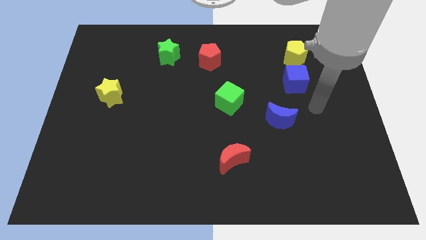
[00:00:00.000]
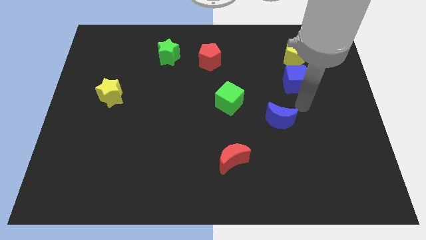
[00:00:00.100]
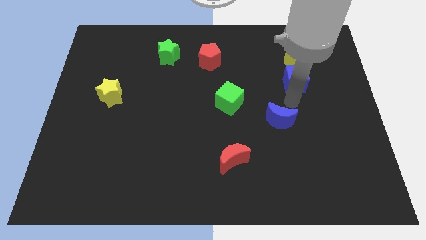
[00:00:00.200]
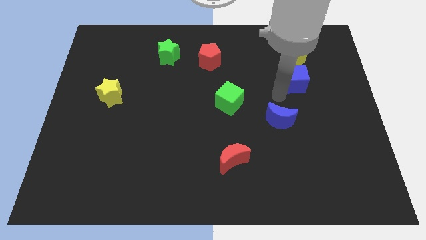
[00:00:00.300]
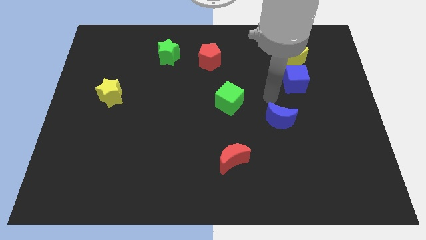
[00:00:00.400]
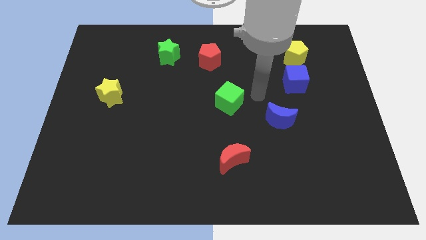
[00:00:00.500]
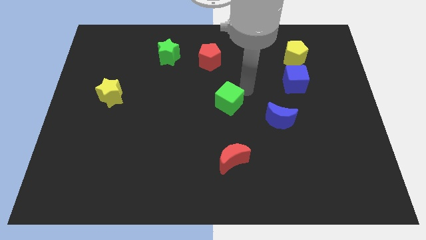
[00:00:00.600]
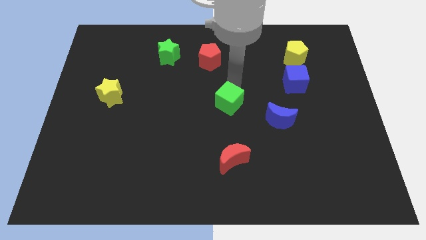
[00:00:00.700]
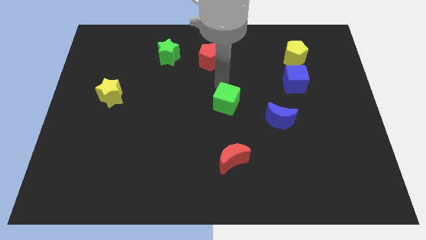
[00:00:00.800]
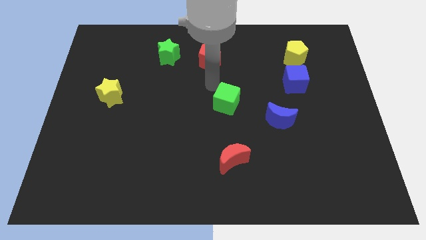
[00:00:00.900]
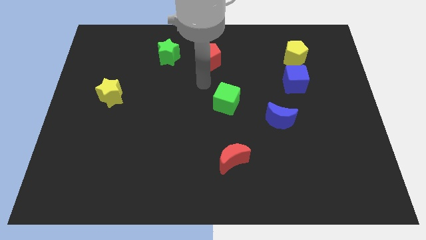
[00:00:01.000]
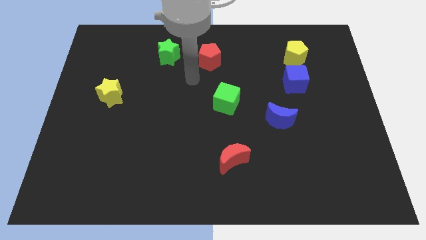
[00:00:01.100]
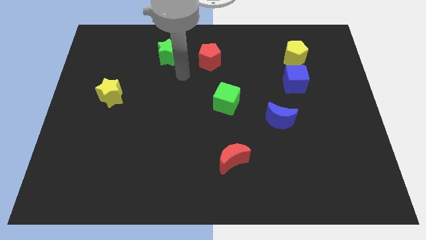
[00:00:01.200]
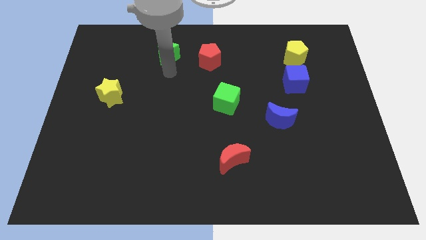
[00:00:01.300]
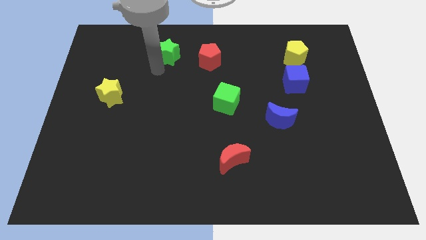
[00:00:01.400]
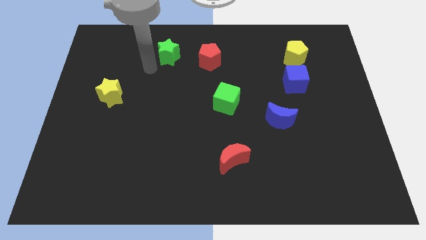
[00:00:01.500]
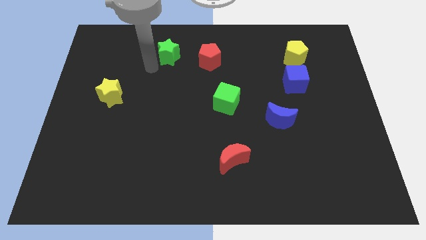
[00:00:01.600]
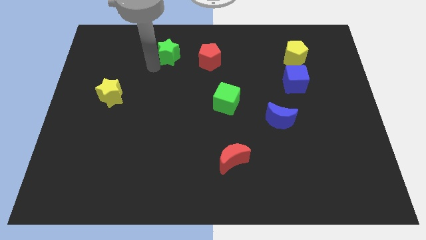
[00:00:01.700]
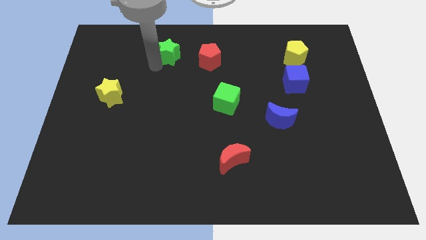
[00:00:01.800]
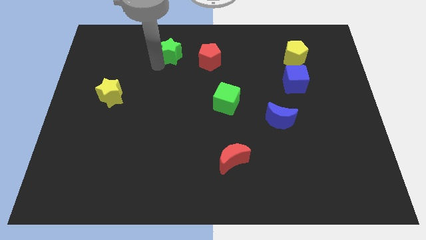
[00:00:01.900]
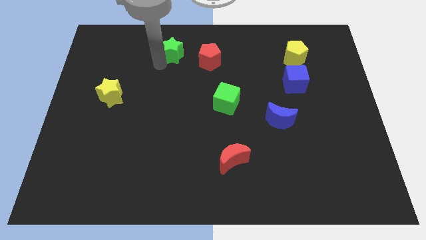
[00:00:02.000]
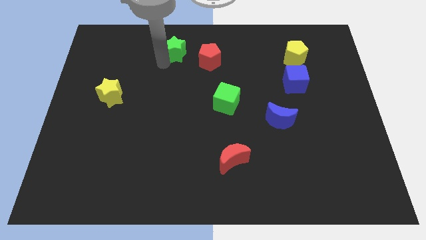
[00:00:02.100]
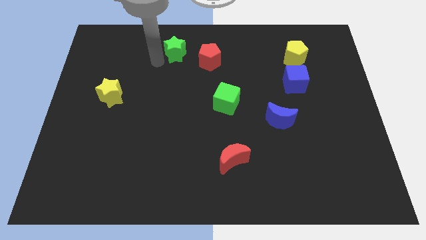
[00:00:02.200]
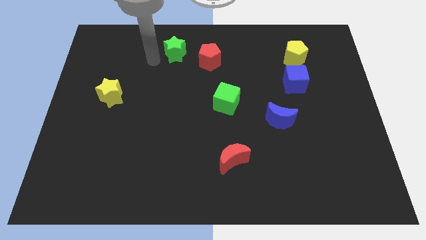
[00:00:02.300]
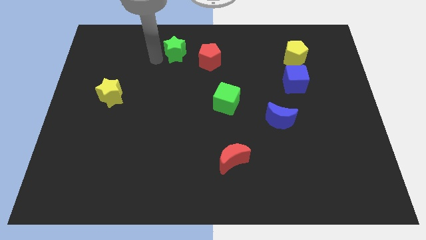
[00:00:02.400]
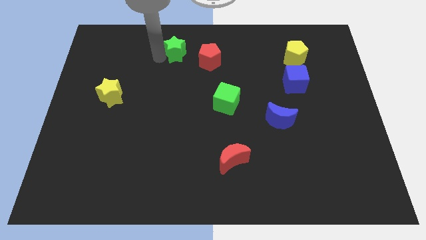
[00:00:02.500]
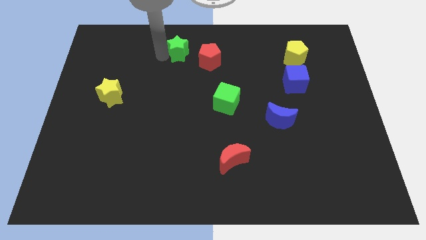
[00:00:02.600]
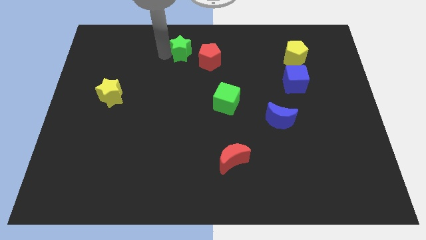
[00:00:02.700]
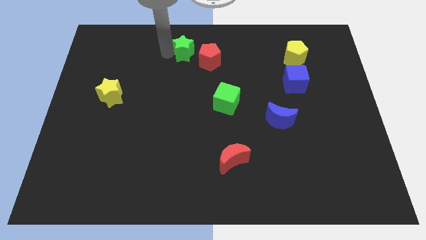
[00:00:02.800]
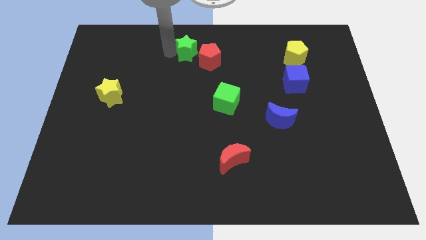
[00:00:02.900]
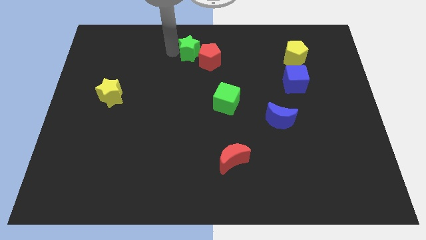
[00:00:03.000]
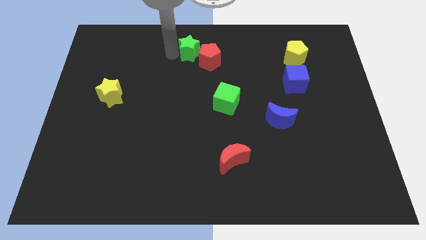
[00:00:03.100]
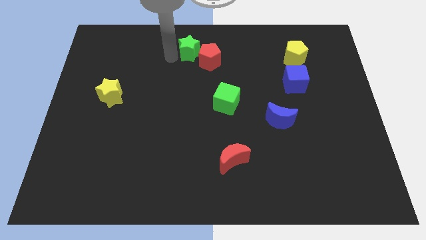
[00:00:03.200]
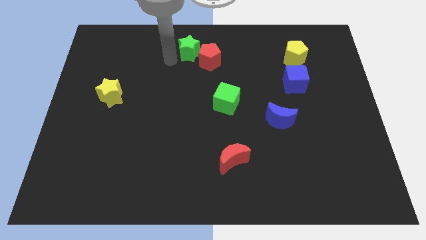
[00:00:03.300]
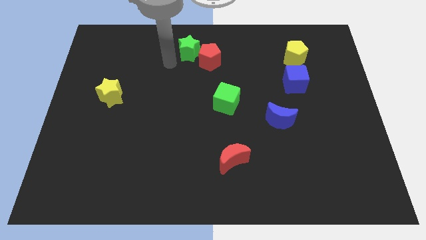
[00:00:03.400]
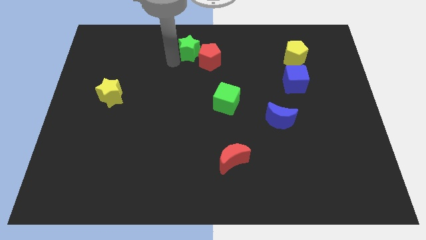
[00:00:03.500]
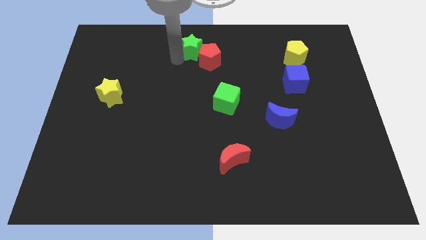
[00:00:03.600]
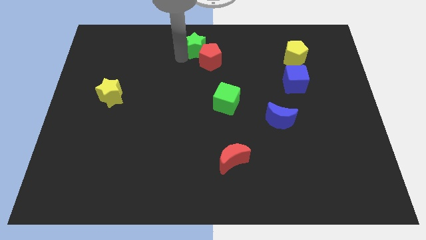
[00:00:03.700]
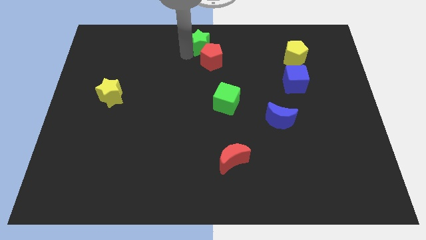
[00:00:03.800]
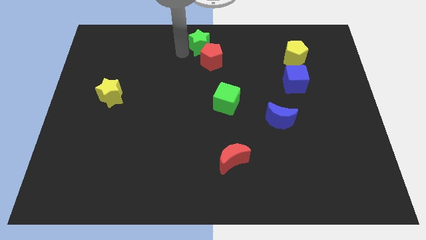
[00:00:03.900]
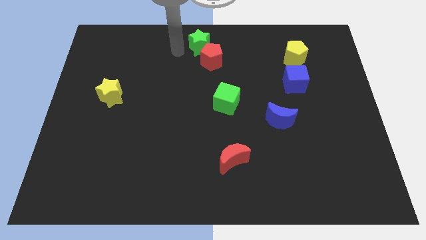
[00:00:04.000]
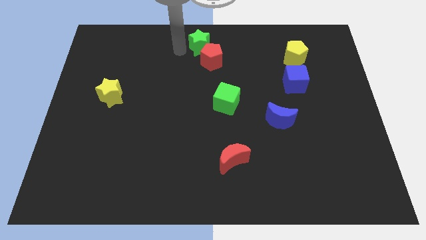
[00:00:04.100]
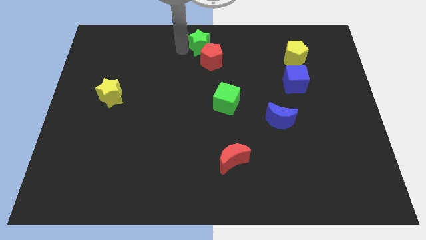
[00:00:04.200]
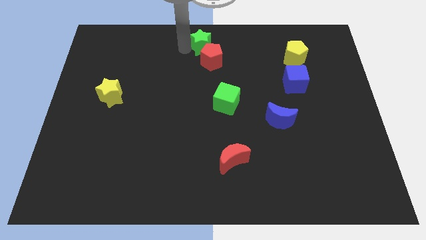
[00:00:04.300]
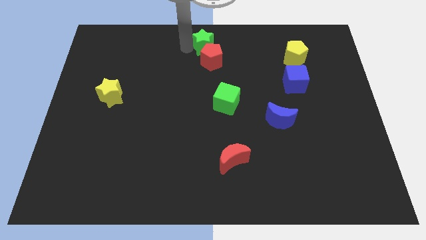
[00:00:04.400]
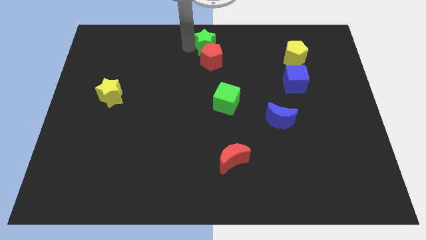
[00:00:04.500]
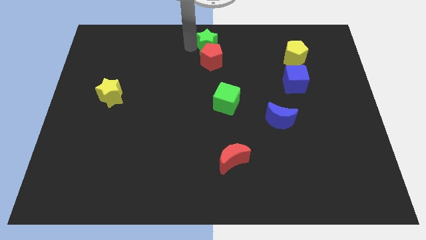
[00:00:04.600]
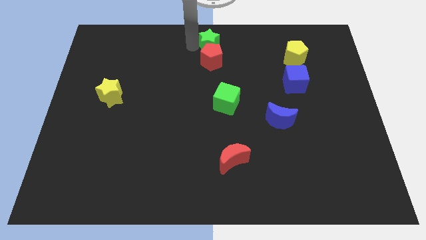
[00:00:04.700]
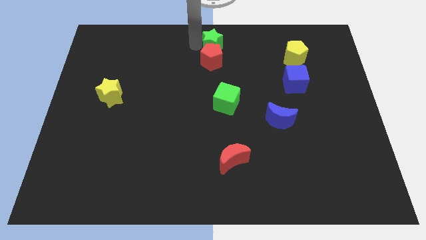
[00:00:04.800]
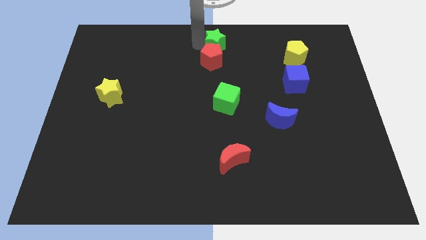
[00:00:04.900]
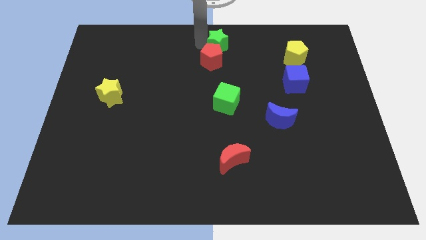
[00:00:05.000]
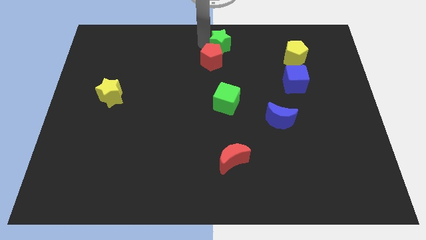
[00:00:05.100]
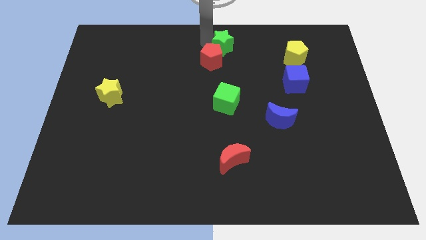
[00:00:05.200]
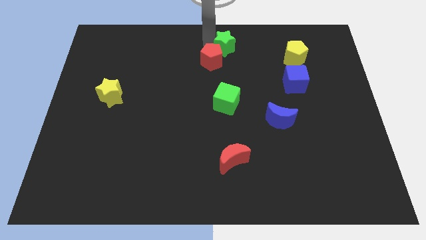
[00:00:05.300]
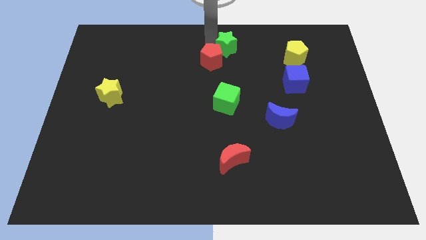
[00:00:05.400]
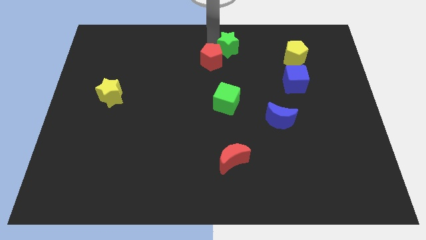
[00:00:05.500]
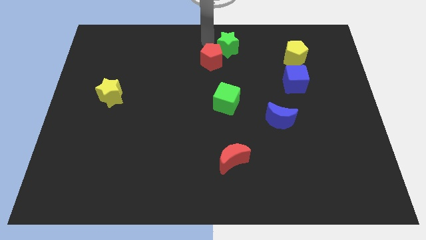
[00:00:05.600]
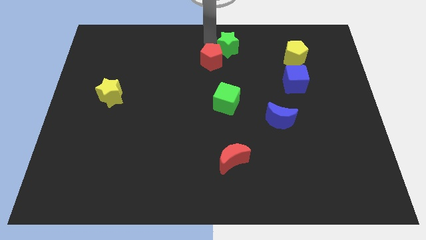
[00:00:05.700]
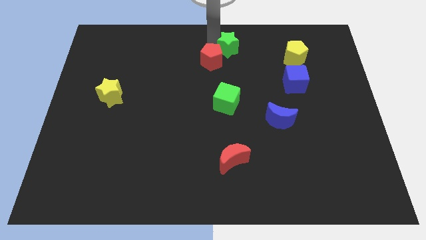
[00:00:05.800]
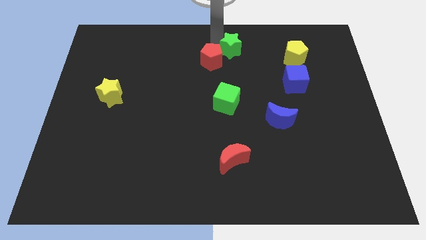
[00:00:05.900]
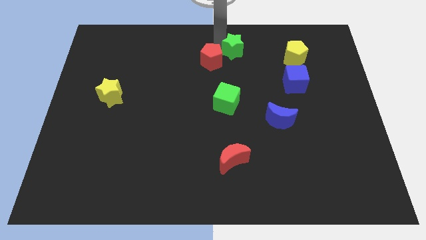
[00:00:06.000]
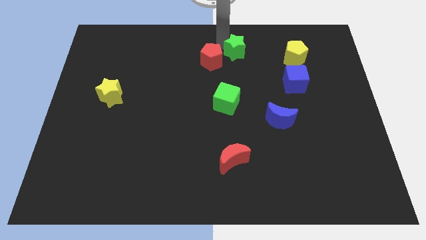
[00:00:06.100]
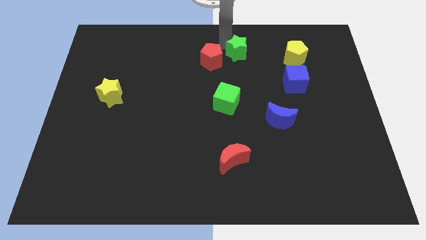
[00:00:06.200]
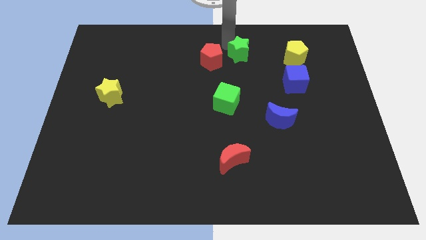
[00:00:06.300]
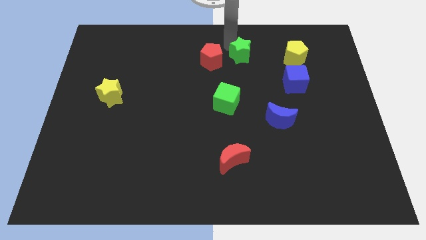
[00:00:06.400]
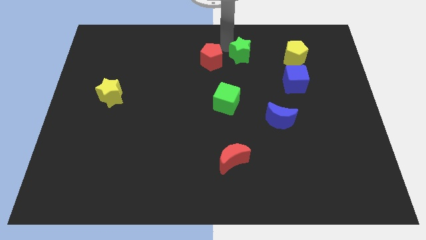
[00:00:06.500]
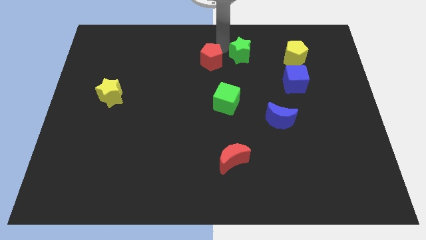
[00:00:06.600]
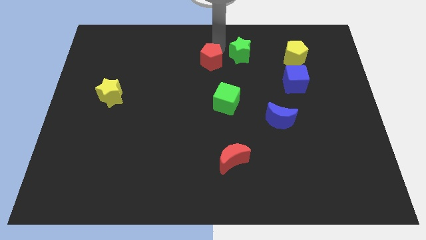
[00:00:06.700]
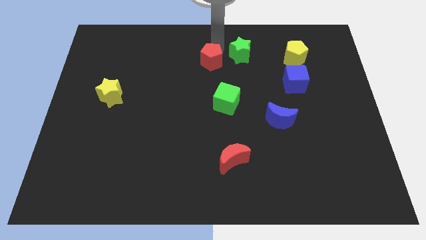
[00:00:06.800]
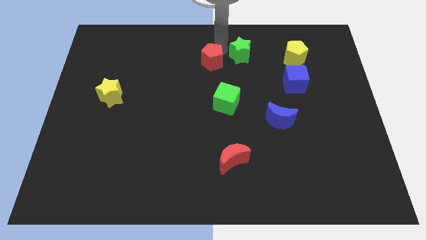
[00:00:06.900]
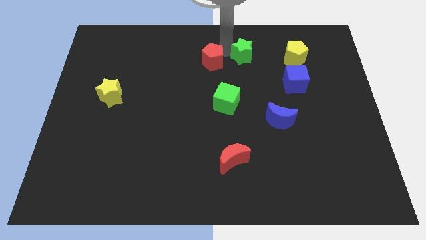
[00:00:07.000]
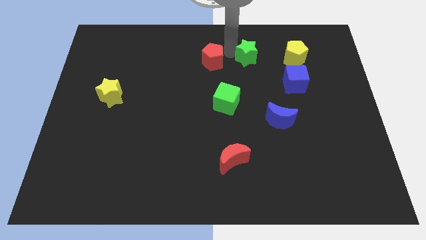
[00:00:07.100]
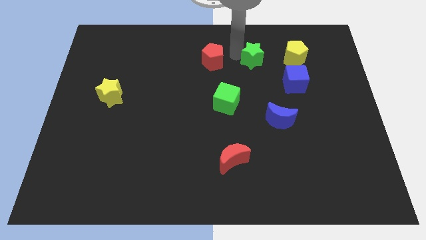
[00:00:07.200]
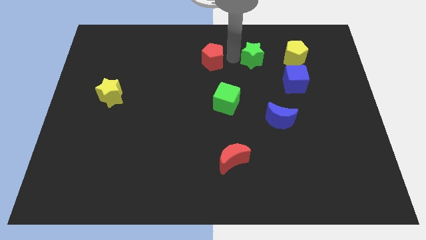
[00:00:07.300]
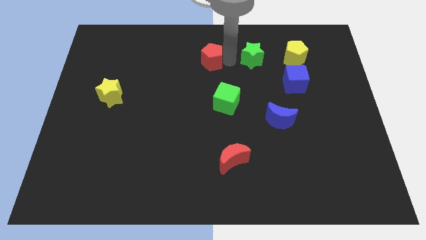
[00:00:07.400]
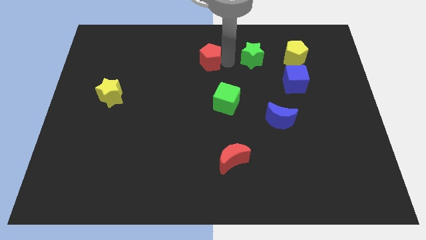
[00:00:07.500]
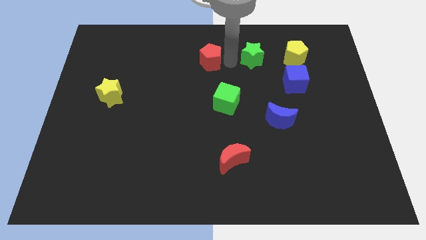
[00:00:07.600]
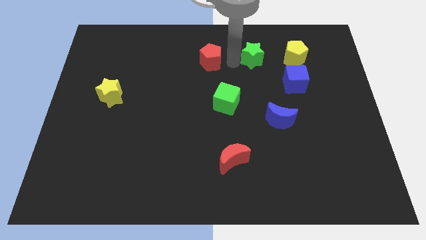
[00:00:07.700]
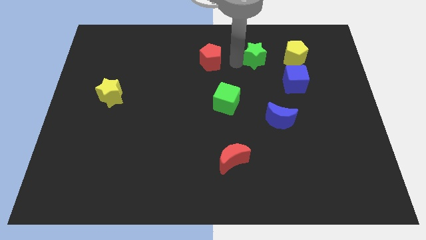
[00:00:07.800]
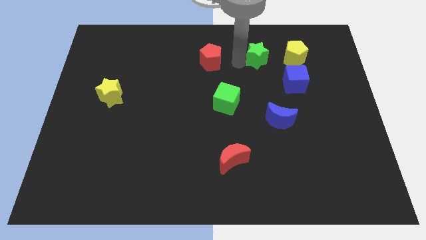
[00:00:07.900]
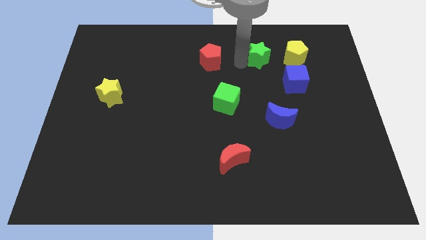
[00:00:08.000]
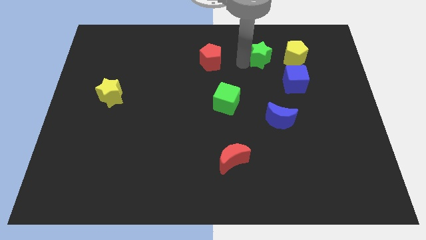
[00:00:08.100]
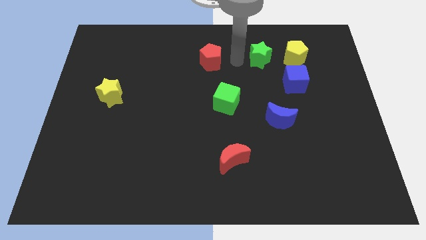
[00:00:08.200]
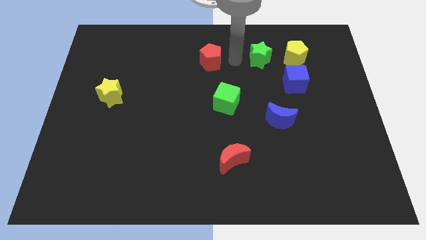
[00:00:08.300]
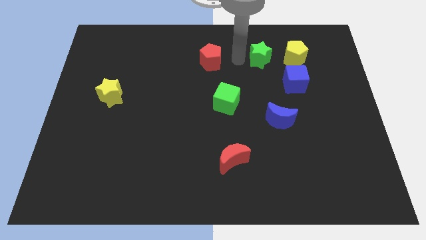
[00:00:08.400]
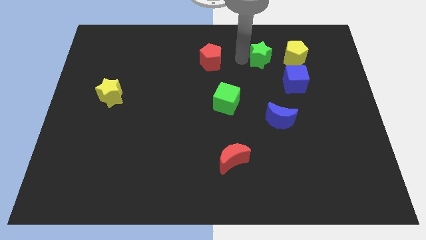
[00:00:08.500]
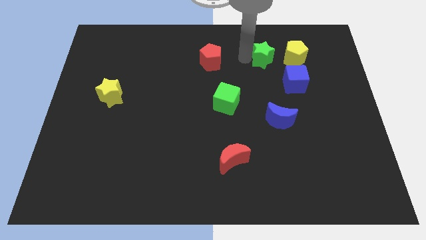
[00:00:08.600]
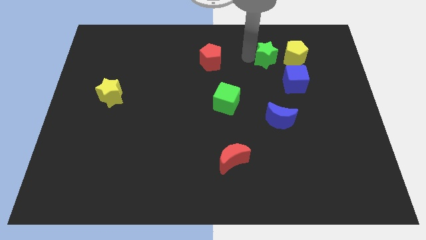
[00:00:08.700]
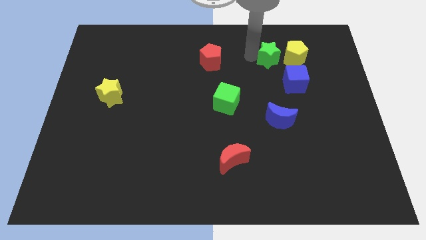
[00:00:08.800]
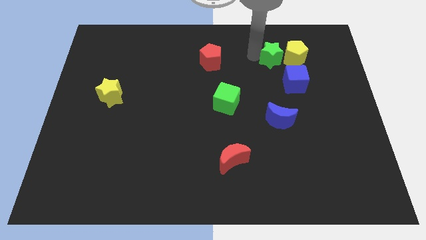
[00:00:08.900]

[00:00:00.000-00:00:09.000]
push the green star close to the yellow pentagon
